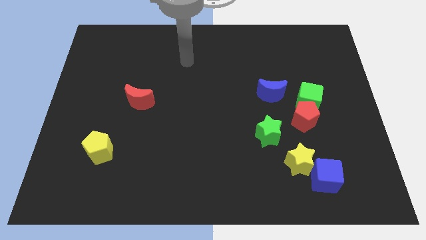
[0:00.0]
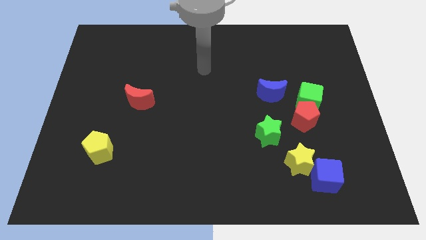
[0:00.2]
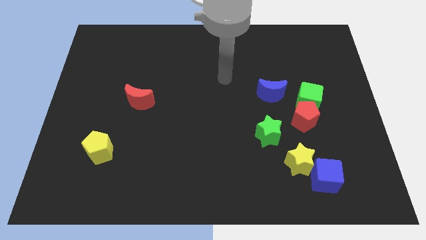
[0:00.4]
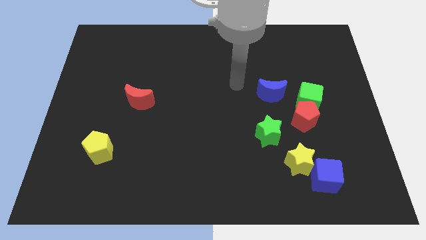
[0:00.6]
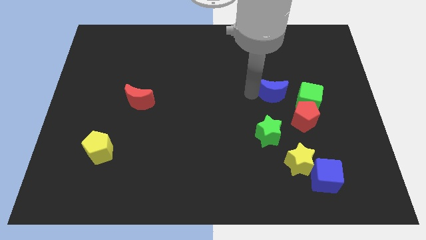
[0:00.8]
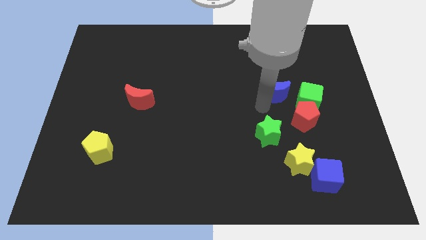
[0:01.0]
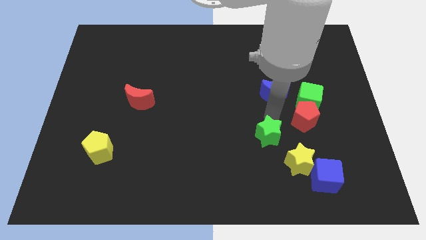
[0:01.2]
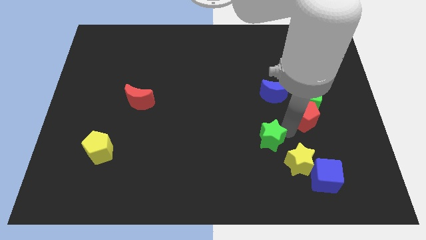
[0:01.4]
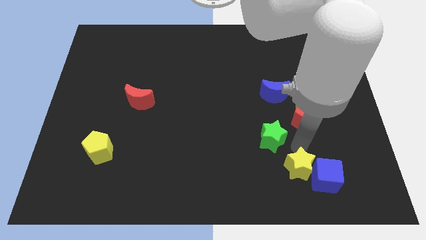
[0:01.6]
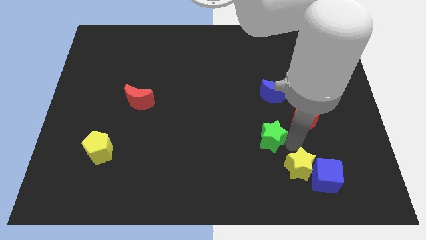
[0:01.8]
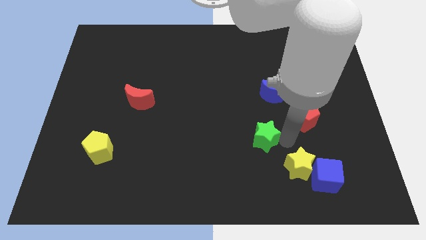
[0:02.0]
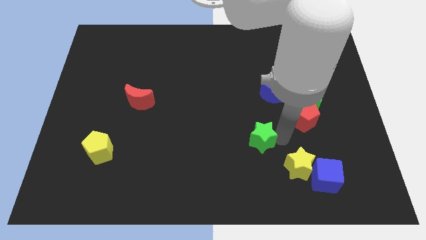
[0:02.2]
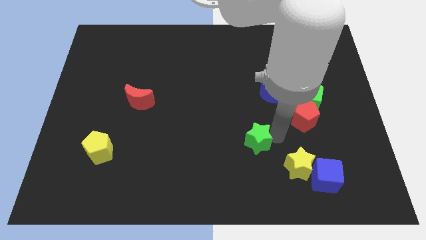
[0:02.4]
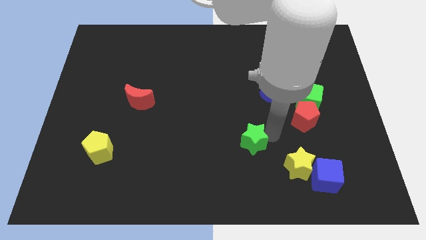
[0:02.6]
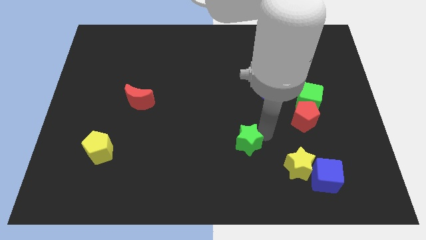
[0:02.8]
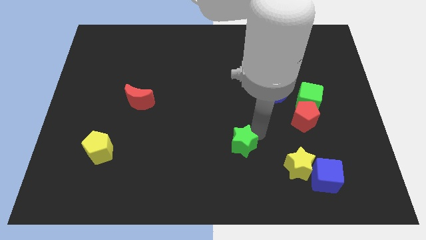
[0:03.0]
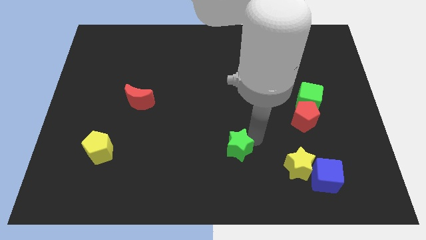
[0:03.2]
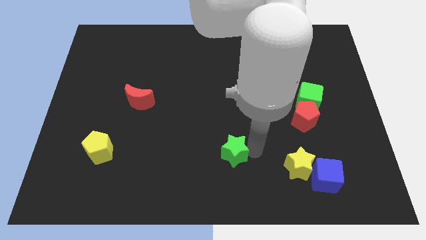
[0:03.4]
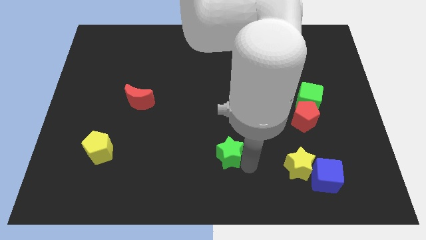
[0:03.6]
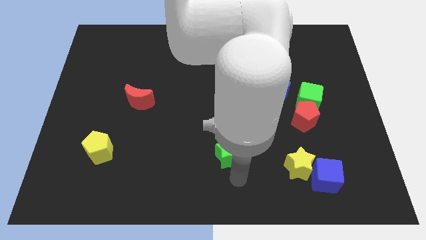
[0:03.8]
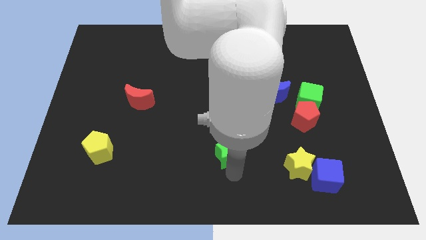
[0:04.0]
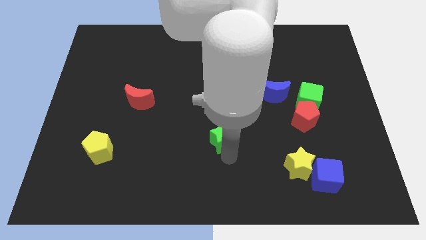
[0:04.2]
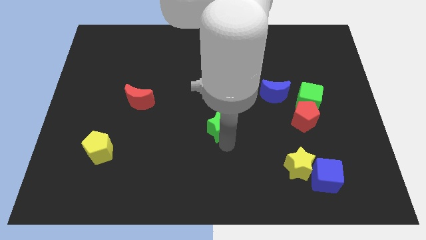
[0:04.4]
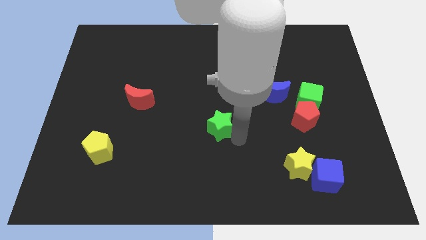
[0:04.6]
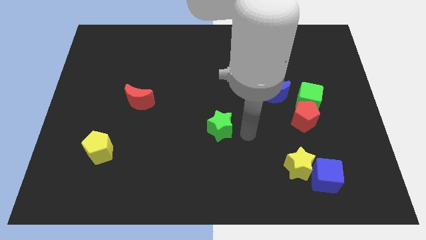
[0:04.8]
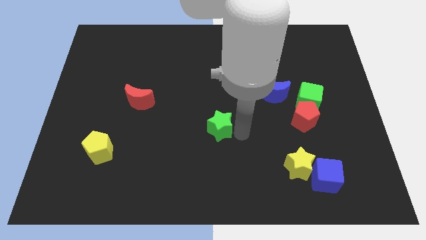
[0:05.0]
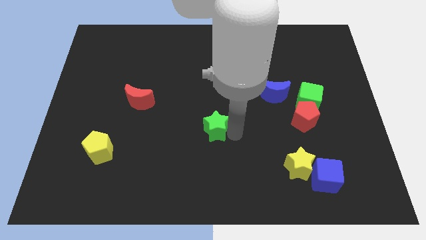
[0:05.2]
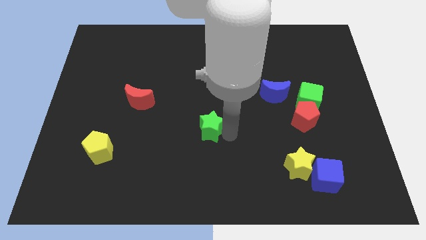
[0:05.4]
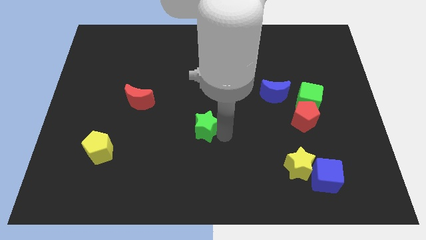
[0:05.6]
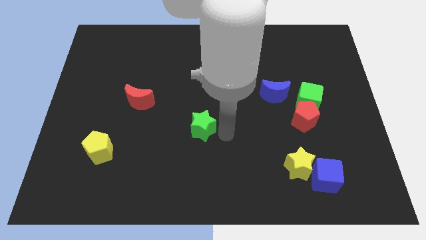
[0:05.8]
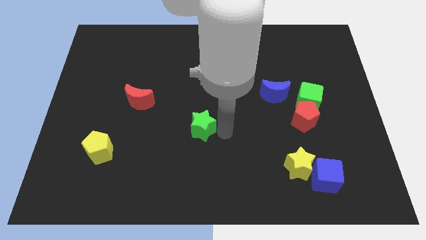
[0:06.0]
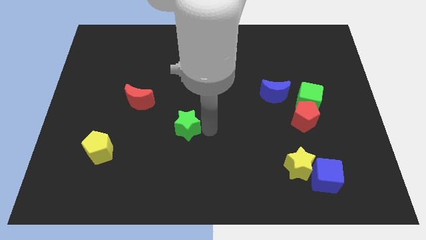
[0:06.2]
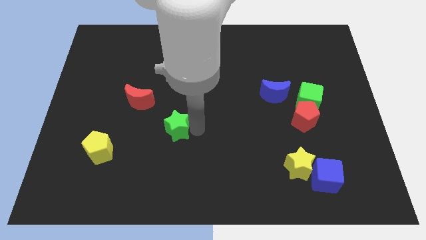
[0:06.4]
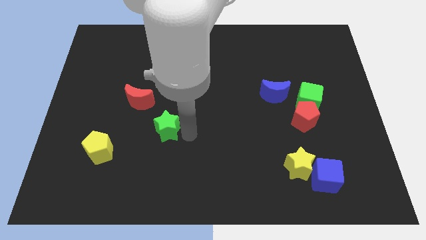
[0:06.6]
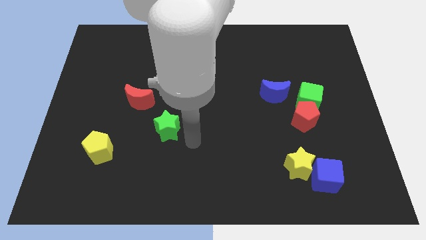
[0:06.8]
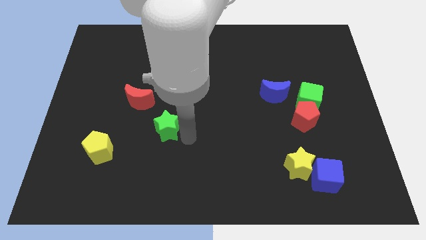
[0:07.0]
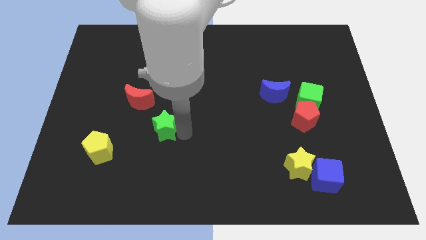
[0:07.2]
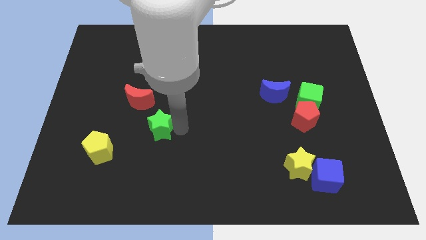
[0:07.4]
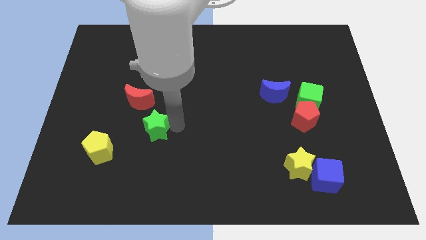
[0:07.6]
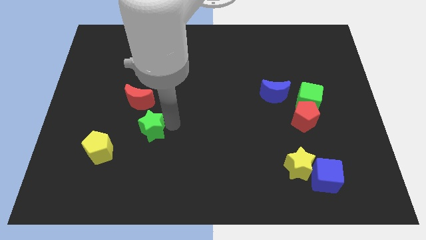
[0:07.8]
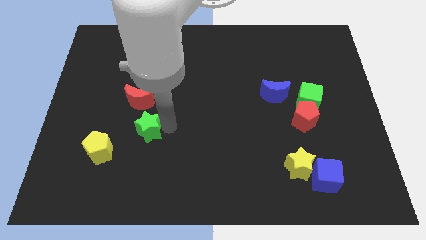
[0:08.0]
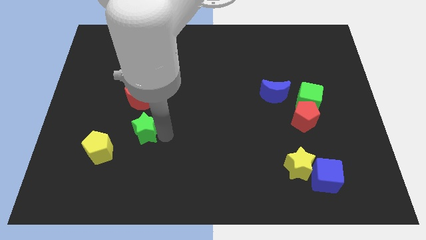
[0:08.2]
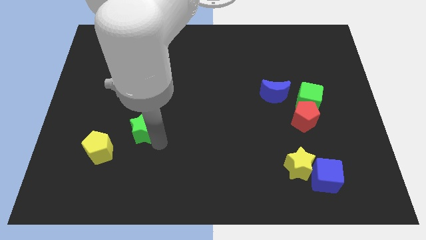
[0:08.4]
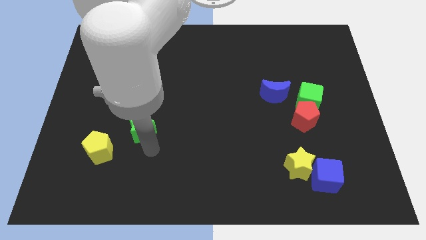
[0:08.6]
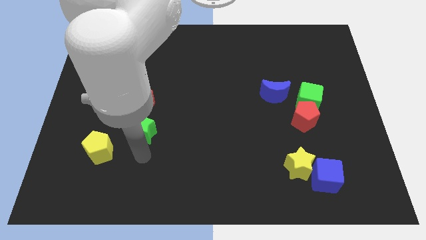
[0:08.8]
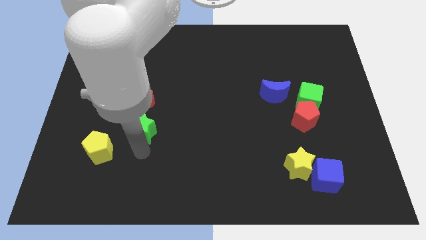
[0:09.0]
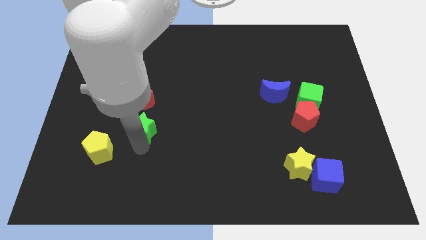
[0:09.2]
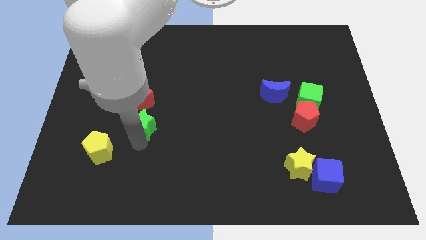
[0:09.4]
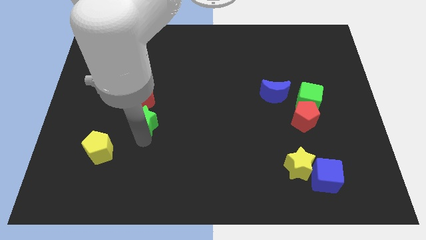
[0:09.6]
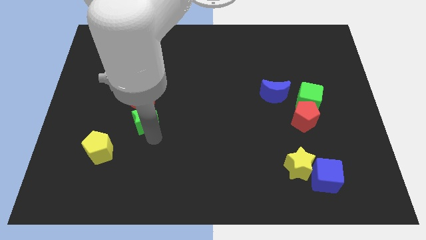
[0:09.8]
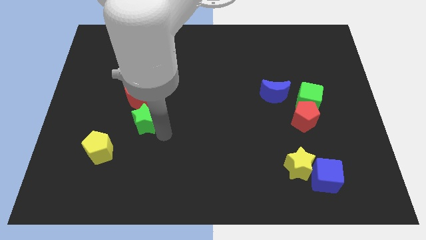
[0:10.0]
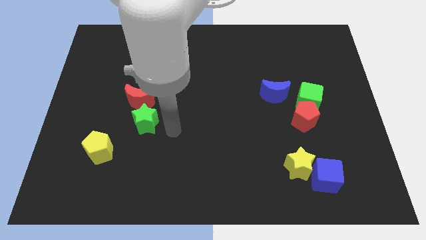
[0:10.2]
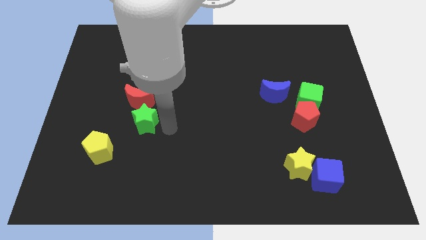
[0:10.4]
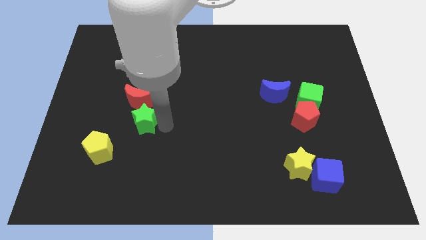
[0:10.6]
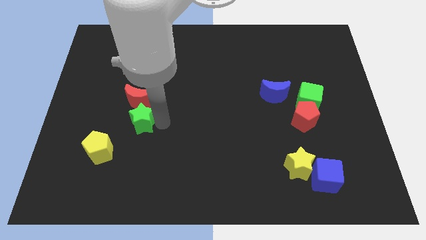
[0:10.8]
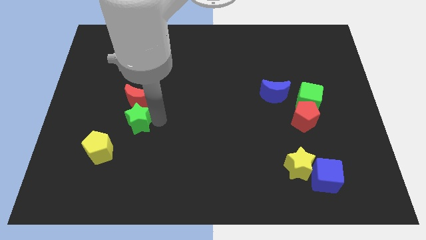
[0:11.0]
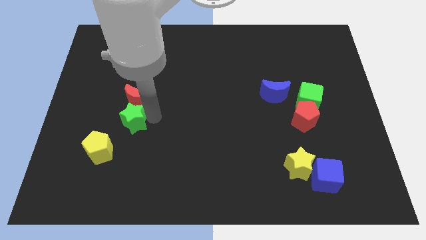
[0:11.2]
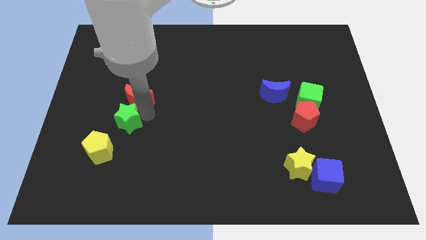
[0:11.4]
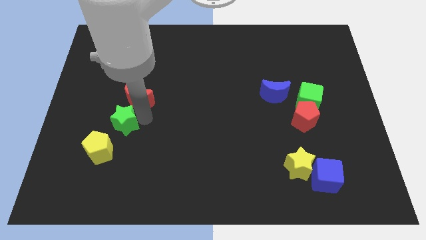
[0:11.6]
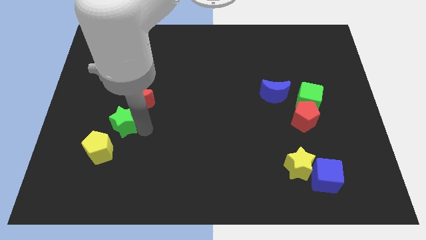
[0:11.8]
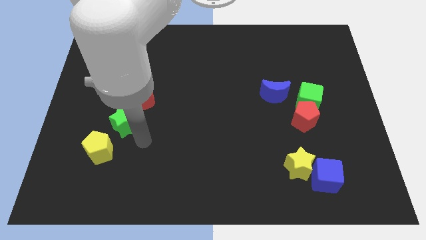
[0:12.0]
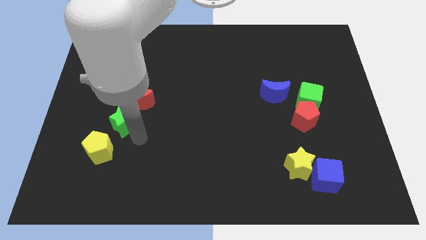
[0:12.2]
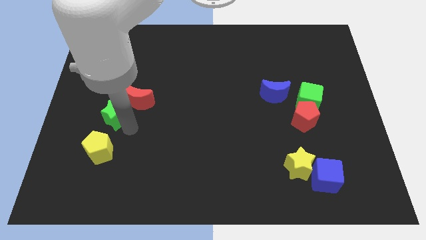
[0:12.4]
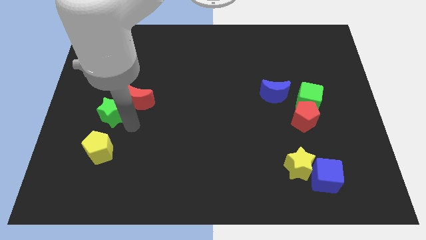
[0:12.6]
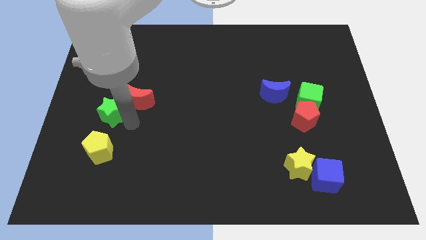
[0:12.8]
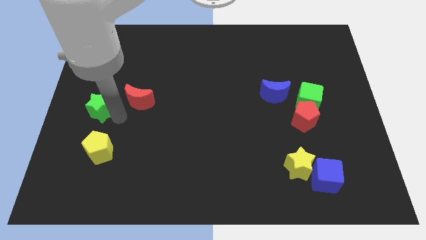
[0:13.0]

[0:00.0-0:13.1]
slide the green star to the left side of the board
